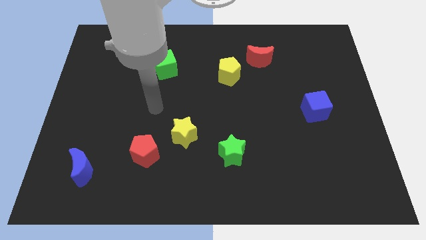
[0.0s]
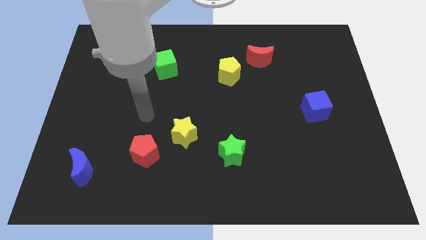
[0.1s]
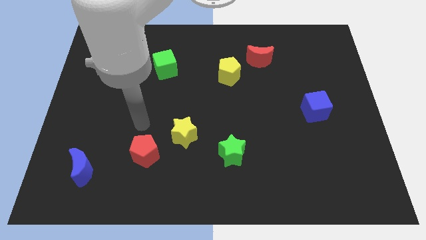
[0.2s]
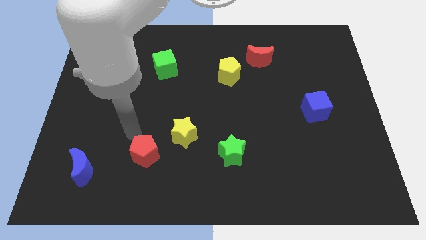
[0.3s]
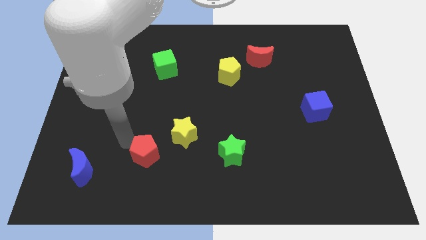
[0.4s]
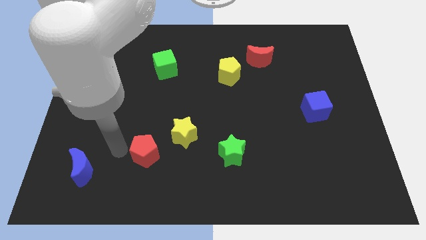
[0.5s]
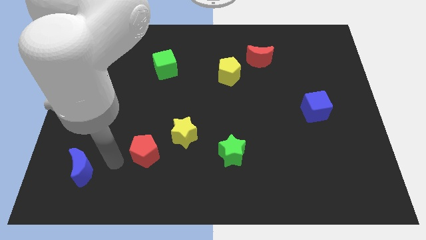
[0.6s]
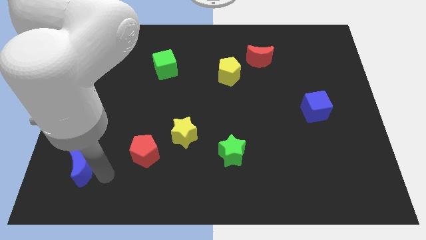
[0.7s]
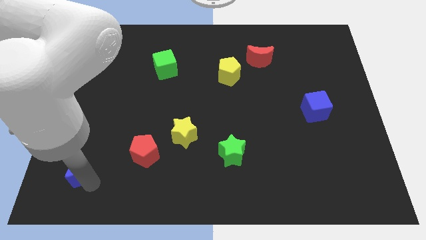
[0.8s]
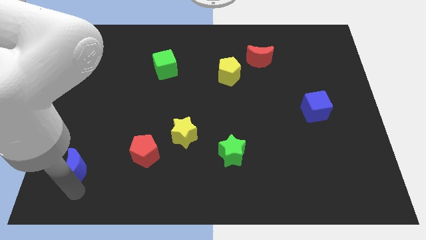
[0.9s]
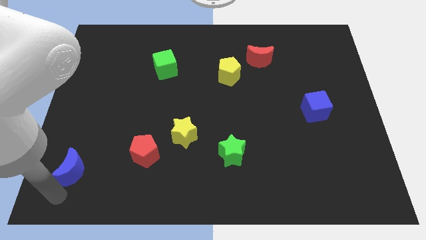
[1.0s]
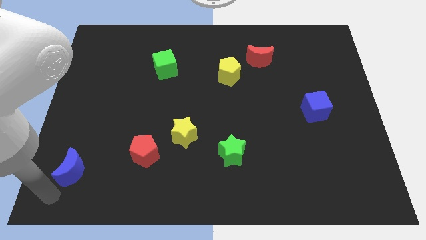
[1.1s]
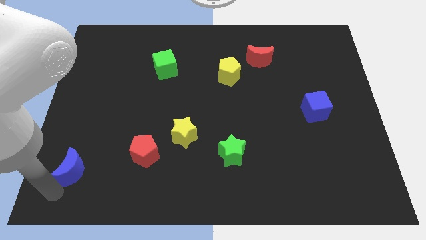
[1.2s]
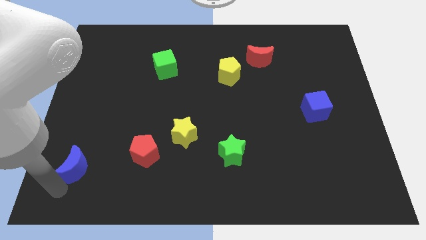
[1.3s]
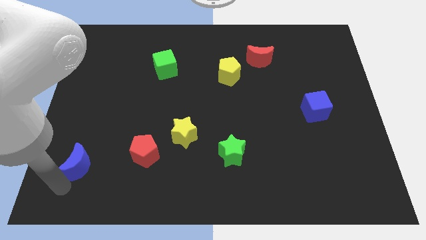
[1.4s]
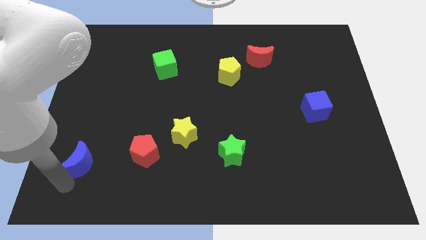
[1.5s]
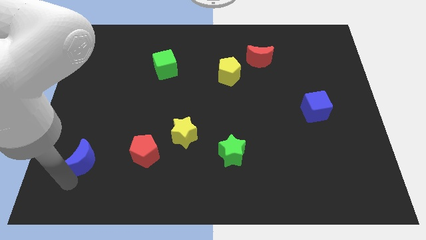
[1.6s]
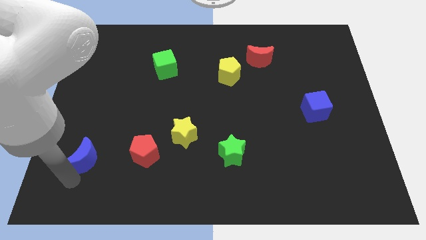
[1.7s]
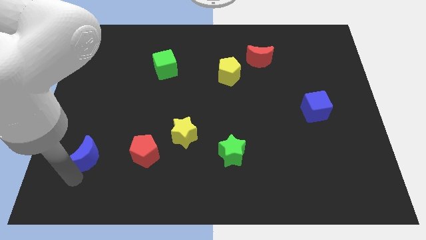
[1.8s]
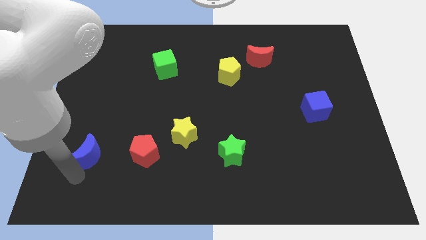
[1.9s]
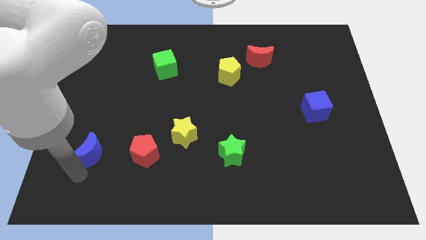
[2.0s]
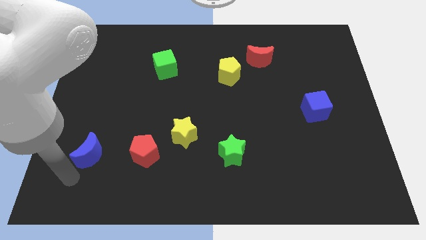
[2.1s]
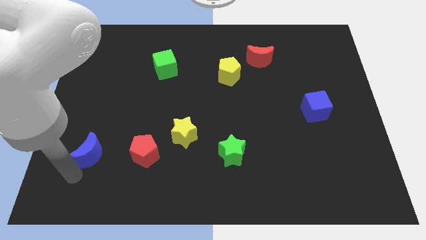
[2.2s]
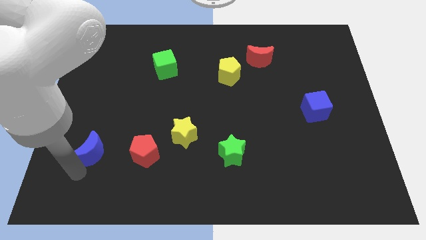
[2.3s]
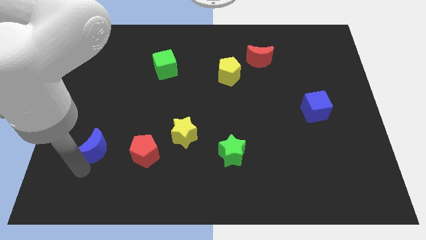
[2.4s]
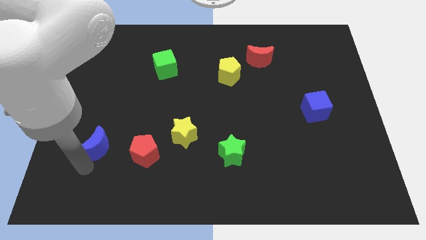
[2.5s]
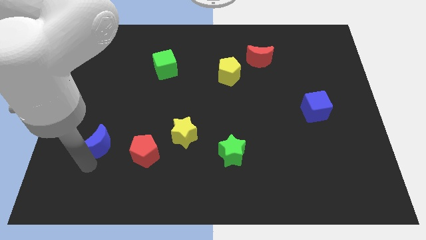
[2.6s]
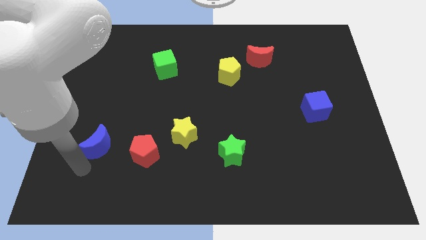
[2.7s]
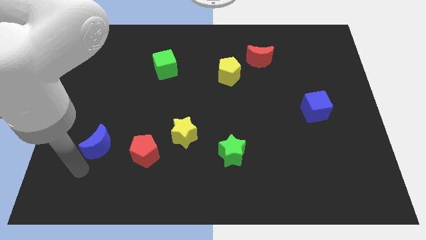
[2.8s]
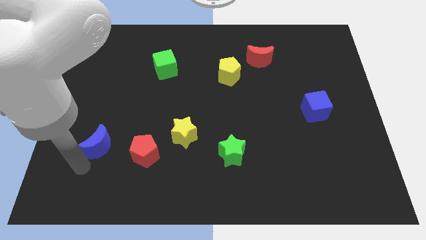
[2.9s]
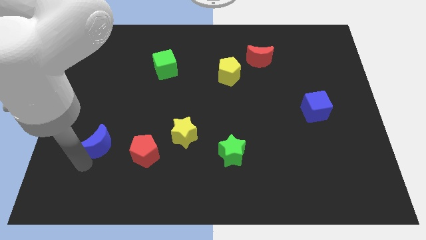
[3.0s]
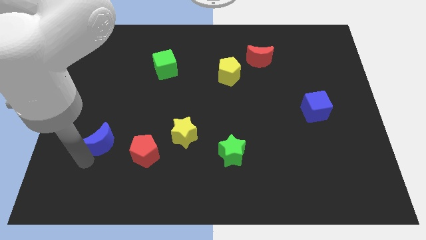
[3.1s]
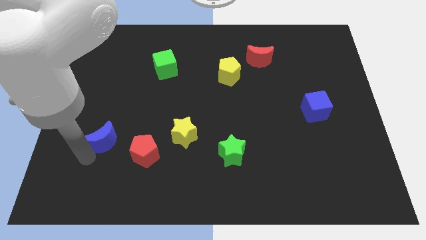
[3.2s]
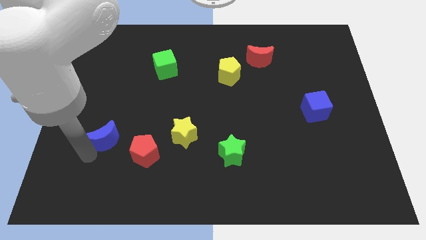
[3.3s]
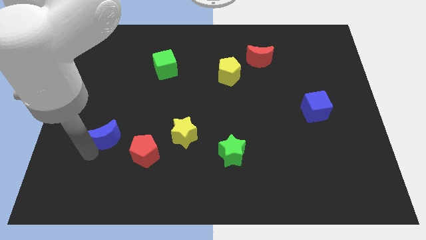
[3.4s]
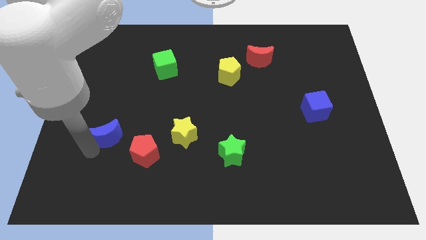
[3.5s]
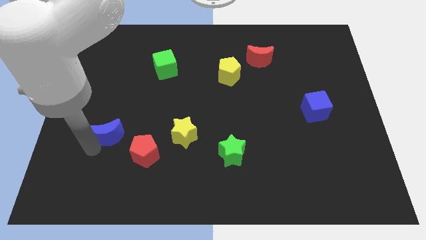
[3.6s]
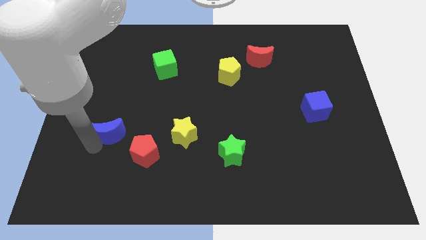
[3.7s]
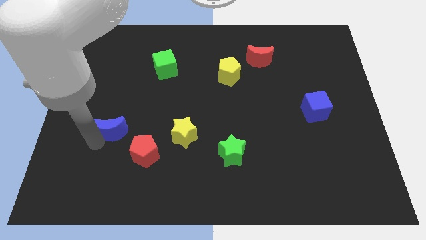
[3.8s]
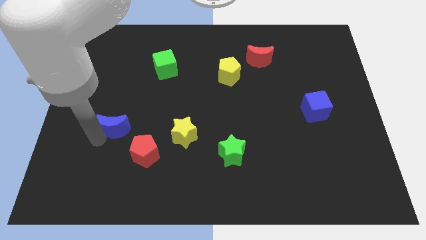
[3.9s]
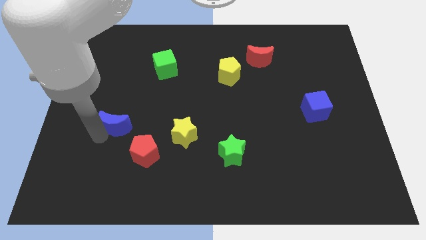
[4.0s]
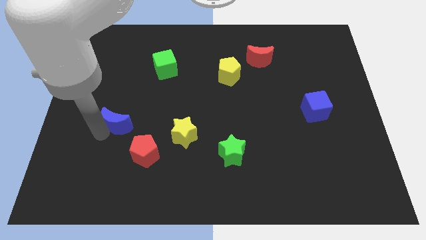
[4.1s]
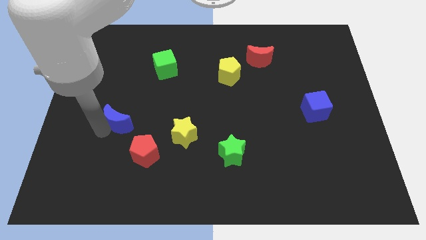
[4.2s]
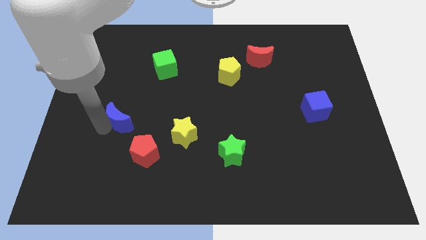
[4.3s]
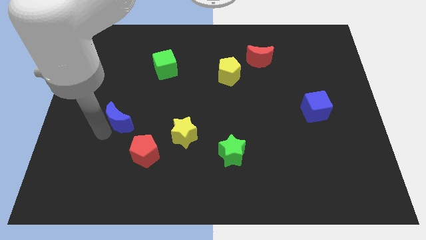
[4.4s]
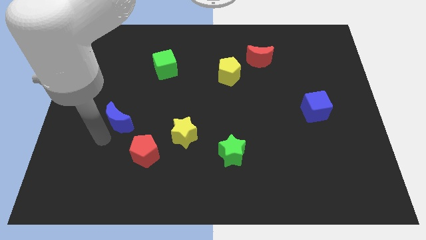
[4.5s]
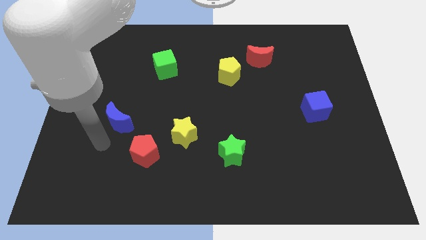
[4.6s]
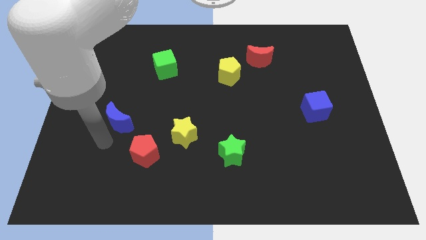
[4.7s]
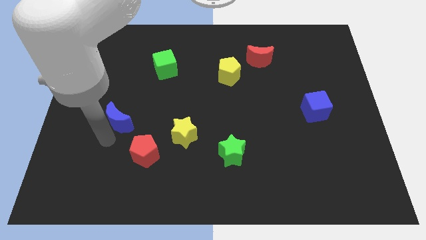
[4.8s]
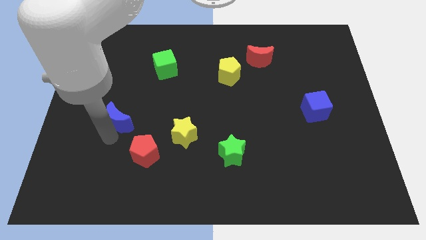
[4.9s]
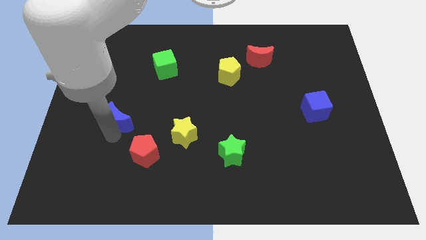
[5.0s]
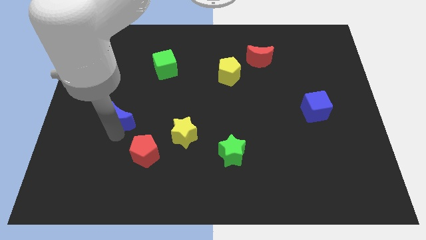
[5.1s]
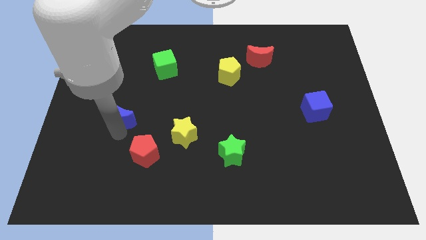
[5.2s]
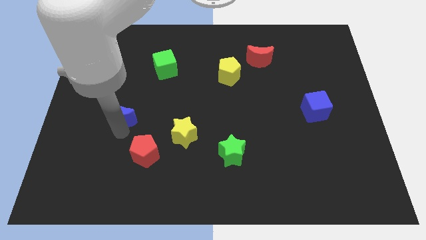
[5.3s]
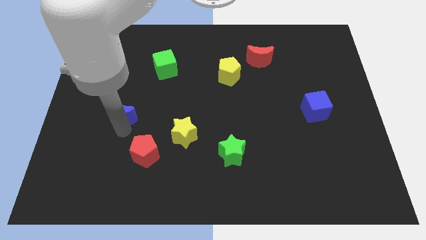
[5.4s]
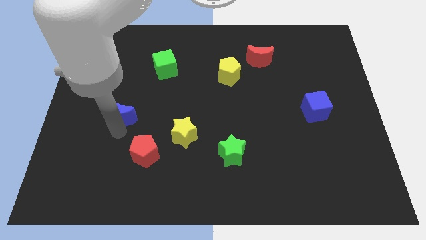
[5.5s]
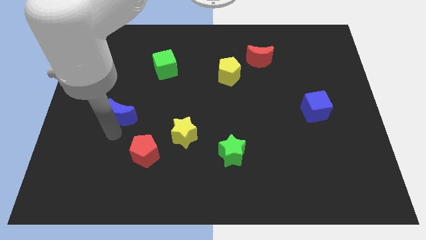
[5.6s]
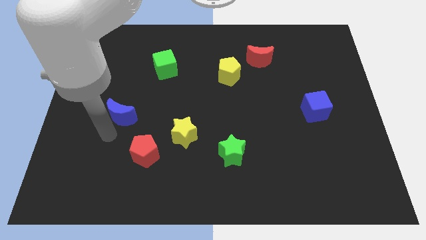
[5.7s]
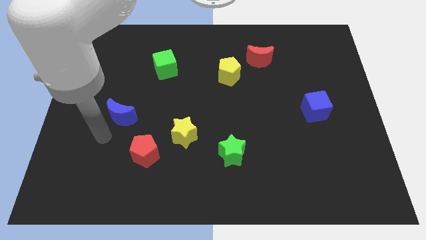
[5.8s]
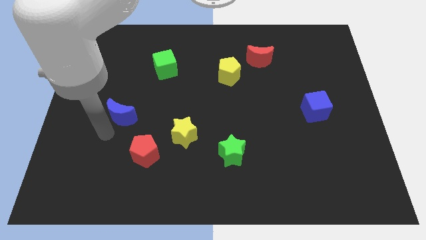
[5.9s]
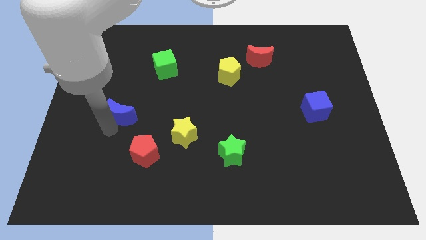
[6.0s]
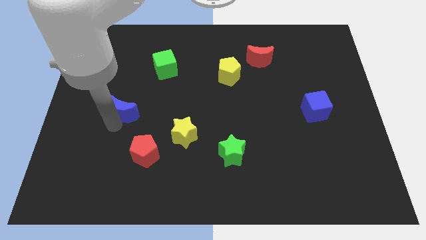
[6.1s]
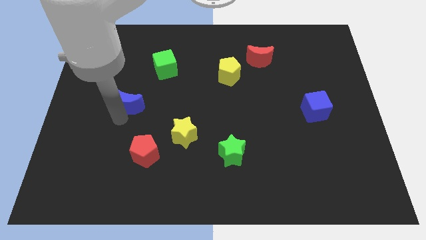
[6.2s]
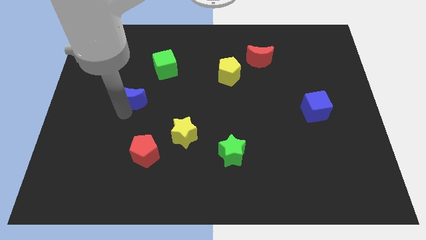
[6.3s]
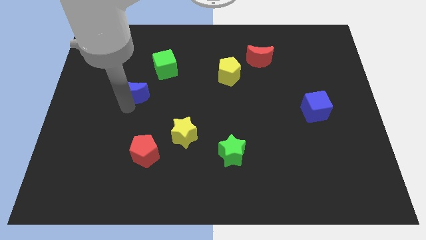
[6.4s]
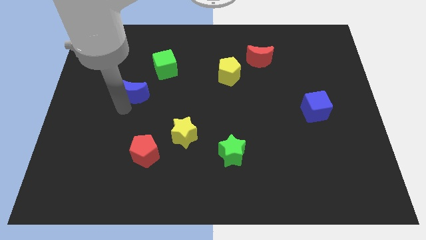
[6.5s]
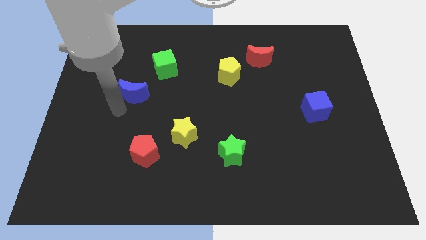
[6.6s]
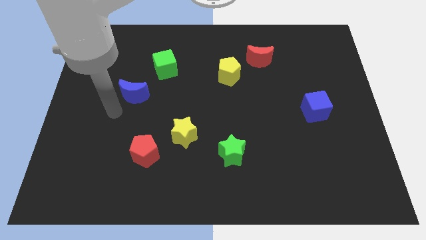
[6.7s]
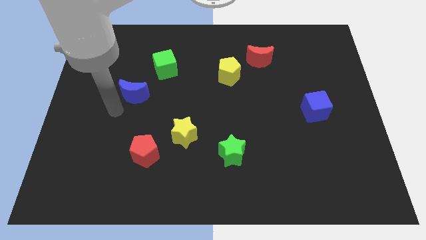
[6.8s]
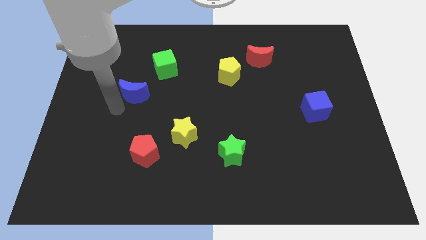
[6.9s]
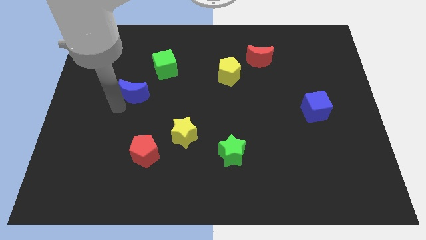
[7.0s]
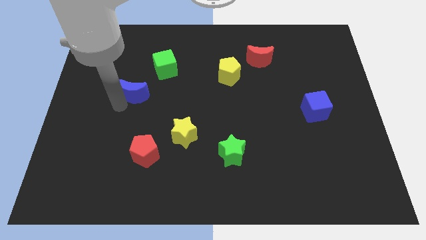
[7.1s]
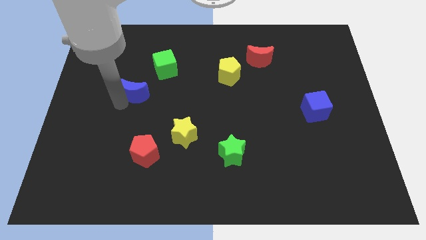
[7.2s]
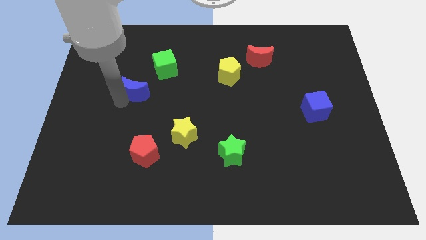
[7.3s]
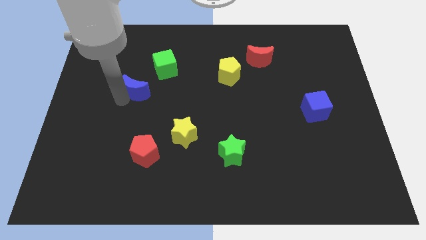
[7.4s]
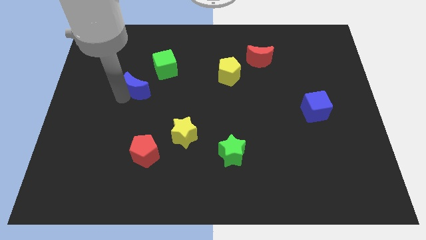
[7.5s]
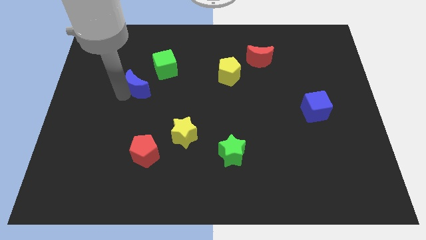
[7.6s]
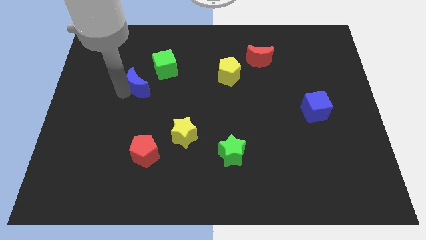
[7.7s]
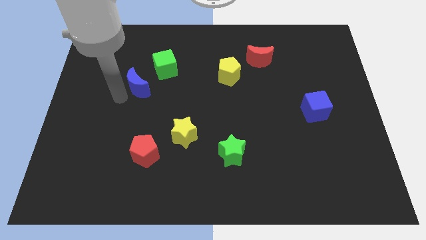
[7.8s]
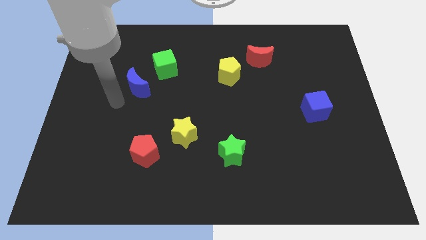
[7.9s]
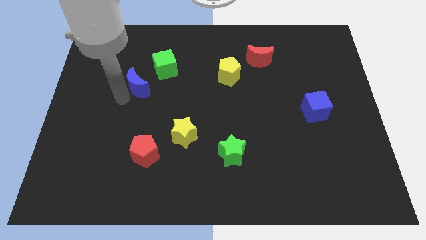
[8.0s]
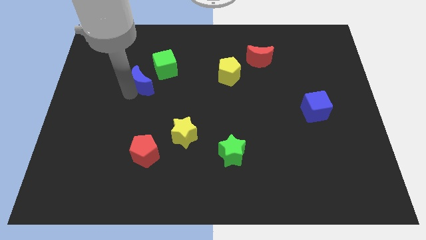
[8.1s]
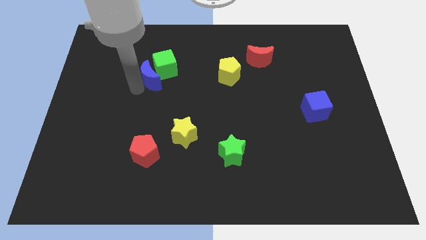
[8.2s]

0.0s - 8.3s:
put the blue moon next to the green cube
